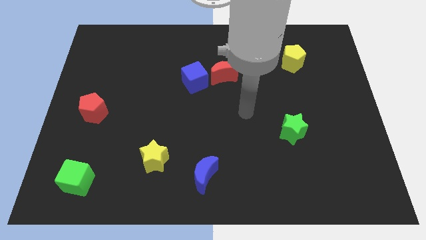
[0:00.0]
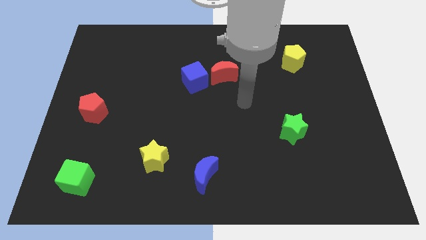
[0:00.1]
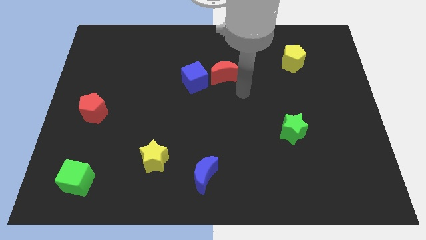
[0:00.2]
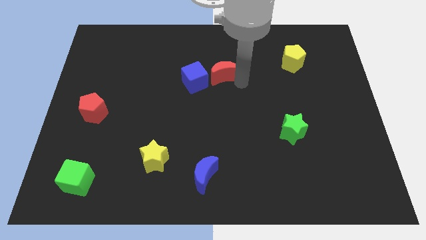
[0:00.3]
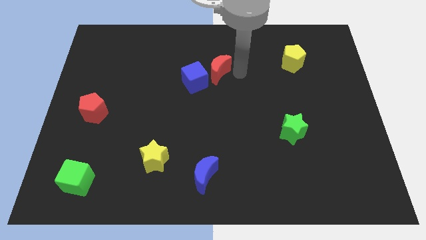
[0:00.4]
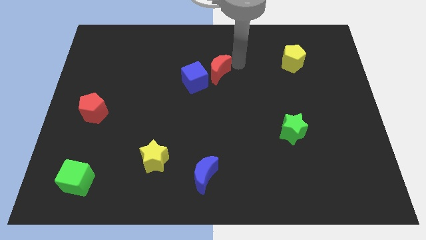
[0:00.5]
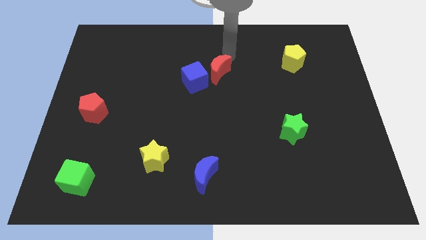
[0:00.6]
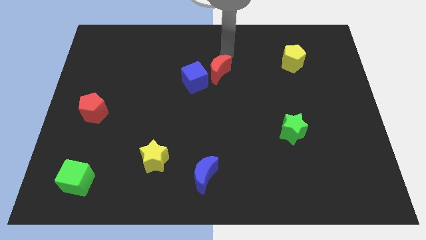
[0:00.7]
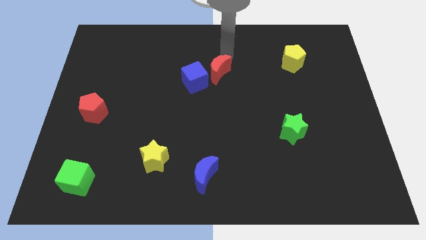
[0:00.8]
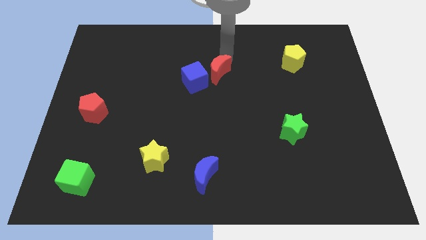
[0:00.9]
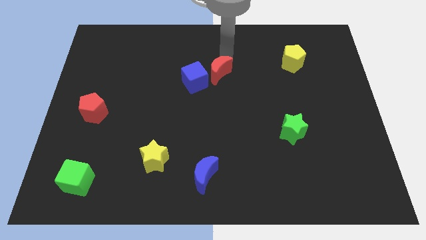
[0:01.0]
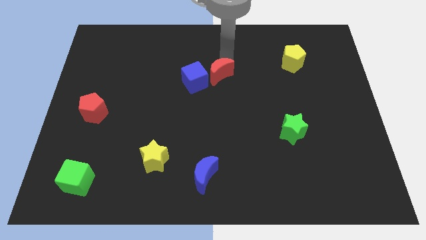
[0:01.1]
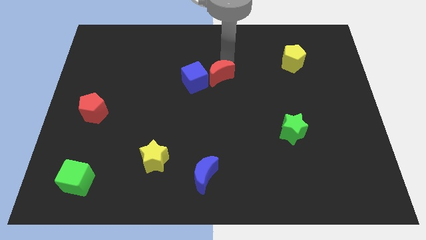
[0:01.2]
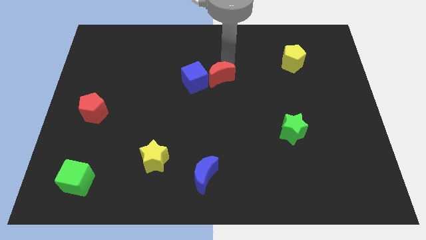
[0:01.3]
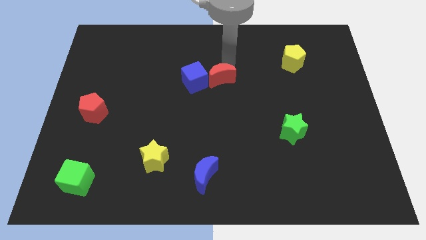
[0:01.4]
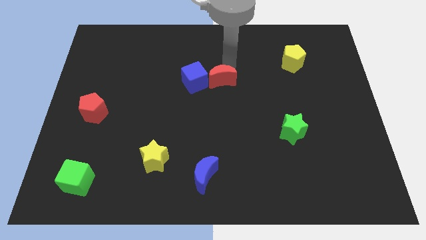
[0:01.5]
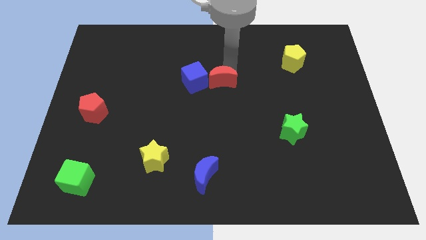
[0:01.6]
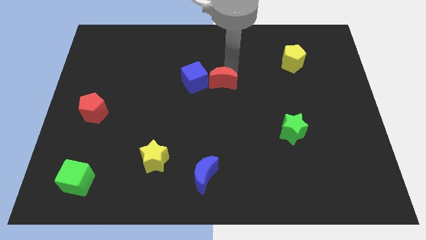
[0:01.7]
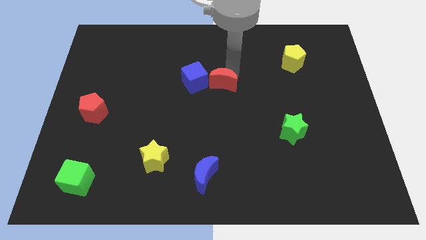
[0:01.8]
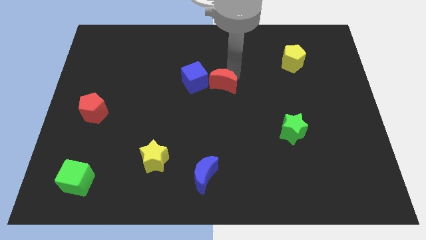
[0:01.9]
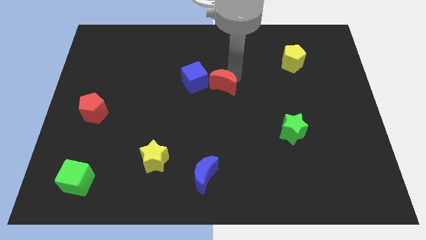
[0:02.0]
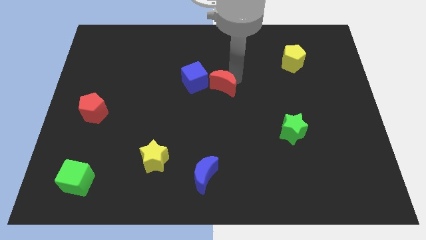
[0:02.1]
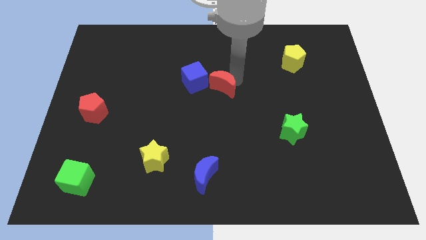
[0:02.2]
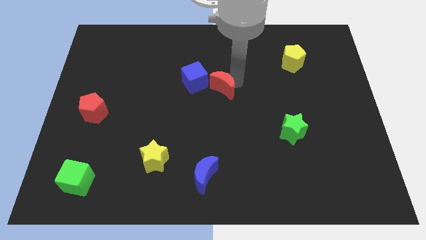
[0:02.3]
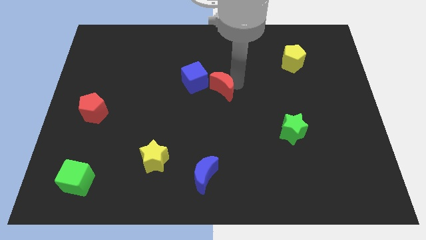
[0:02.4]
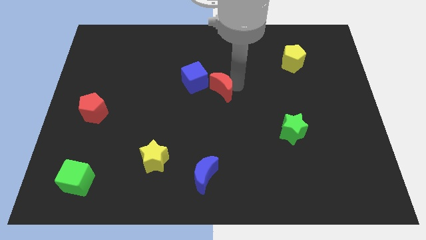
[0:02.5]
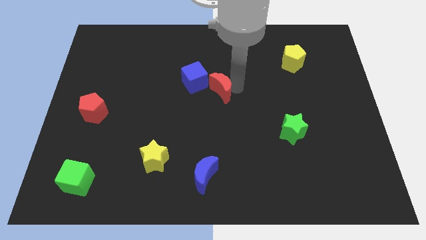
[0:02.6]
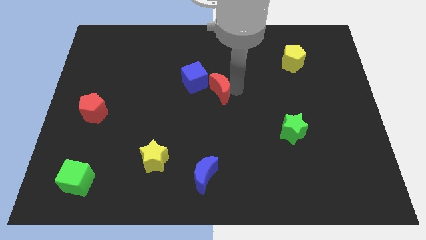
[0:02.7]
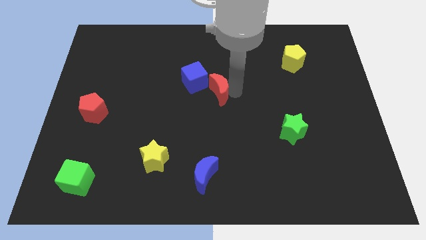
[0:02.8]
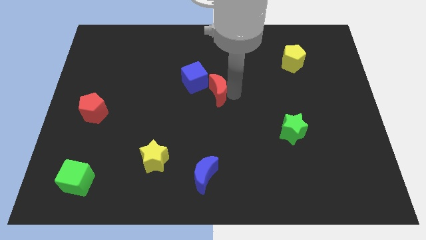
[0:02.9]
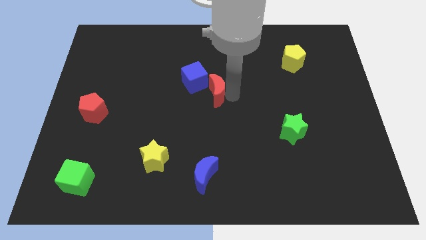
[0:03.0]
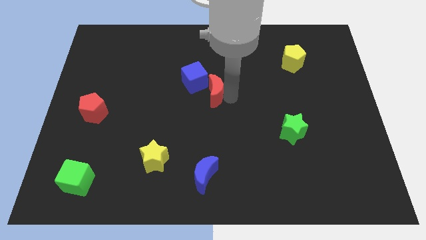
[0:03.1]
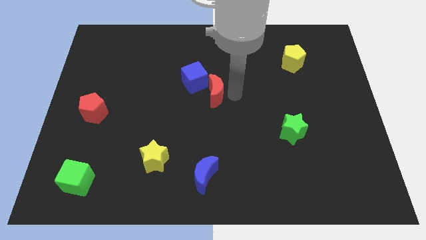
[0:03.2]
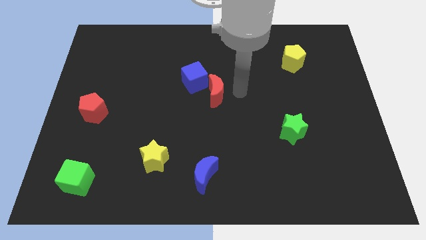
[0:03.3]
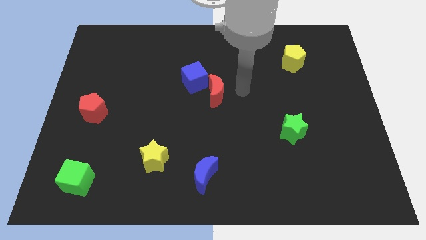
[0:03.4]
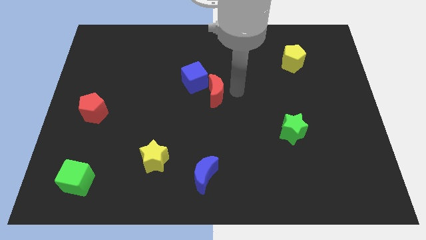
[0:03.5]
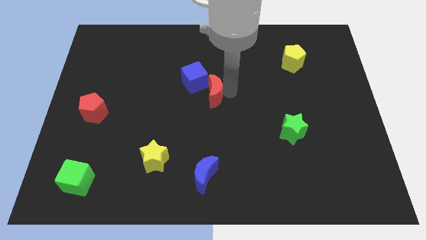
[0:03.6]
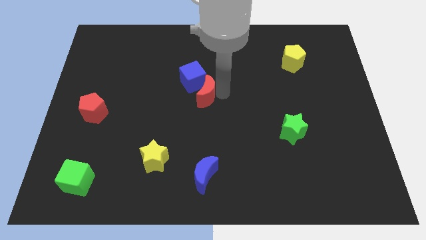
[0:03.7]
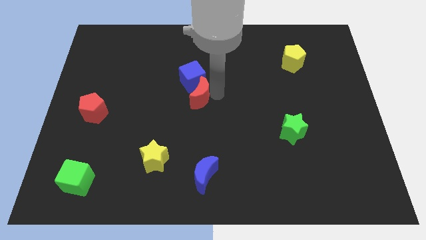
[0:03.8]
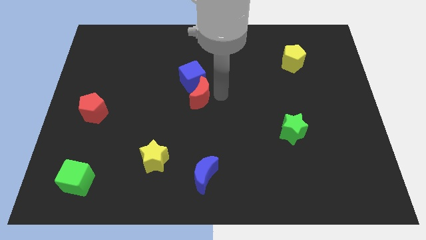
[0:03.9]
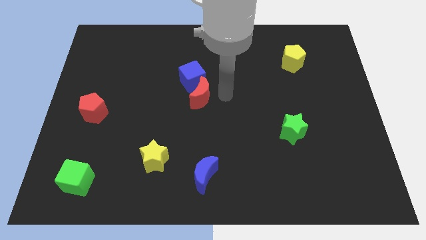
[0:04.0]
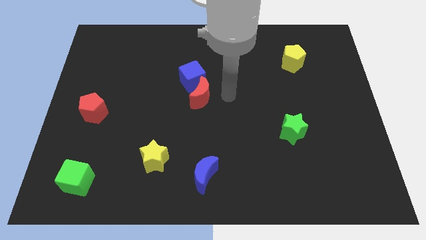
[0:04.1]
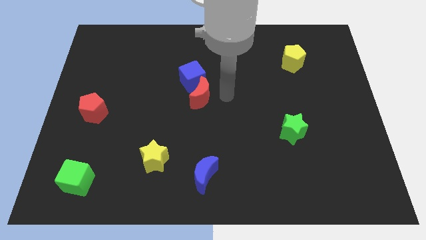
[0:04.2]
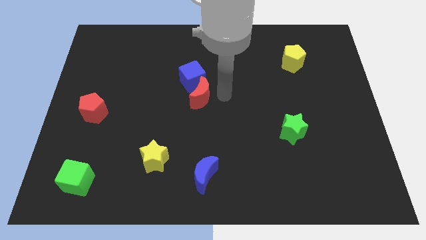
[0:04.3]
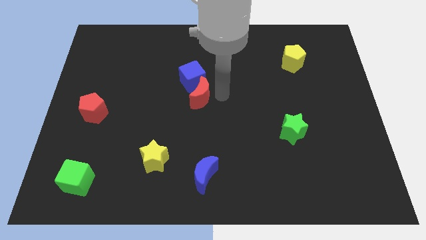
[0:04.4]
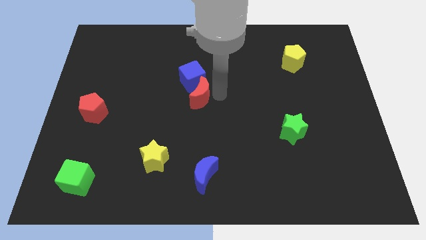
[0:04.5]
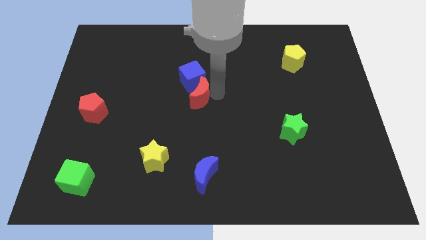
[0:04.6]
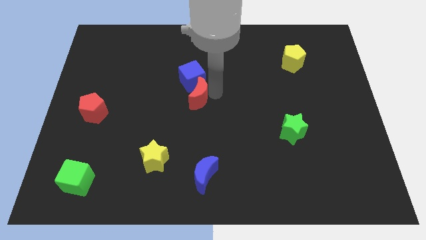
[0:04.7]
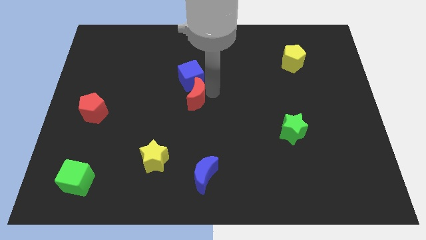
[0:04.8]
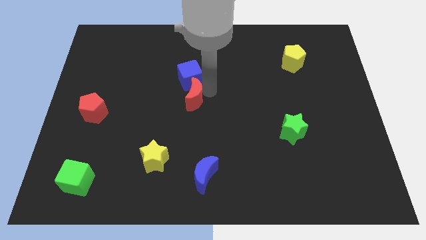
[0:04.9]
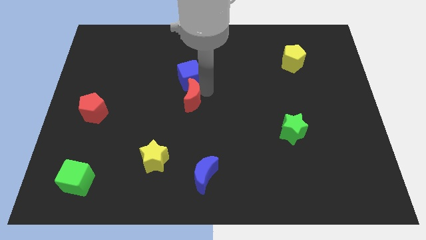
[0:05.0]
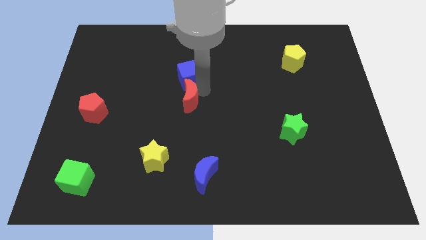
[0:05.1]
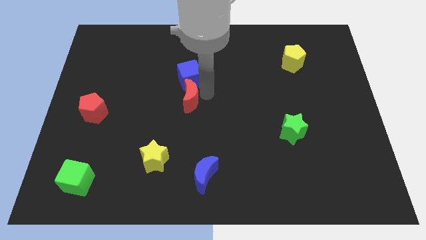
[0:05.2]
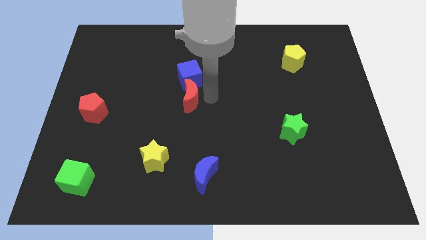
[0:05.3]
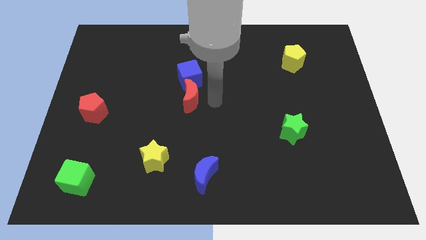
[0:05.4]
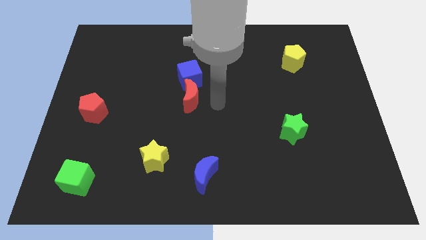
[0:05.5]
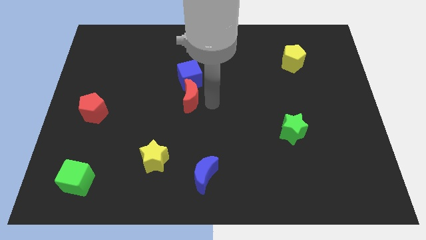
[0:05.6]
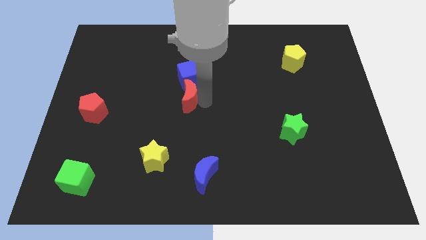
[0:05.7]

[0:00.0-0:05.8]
slide the red moon to the bottom left of the blue cube

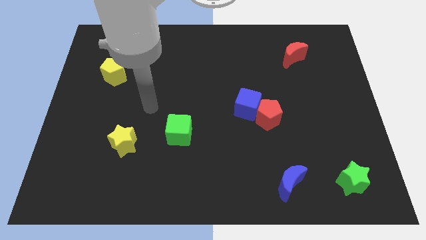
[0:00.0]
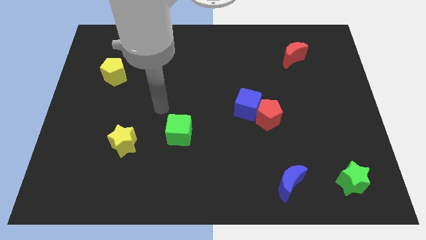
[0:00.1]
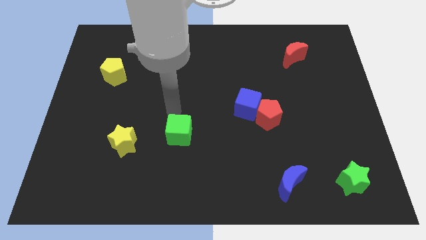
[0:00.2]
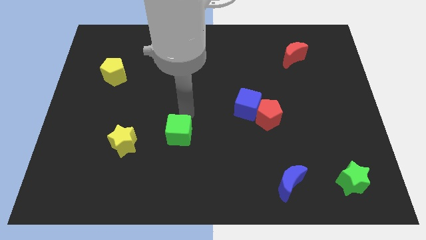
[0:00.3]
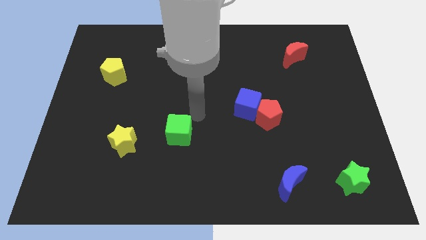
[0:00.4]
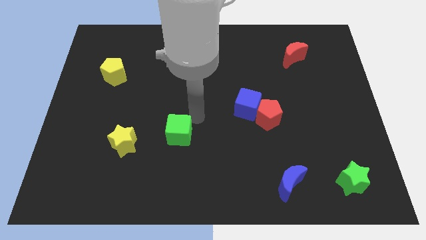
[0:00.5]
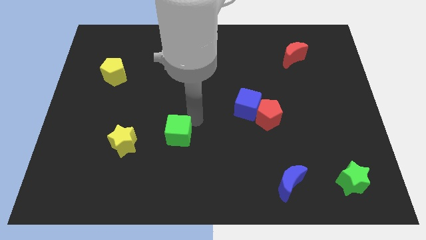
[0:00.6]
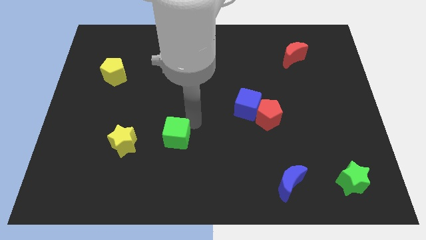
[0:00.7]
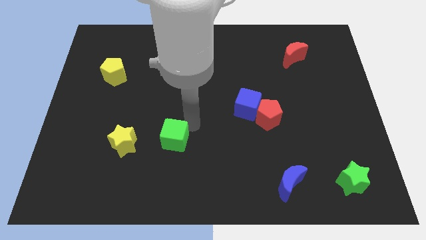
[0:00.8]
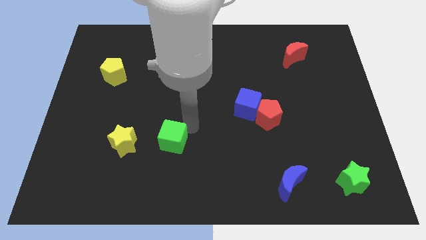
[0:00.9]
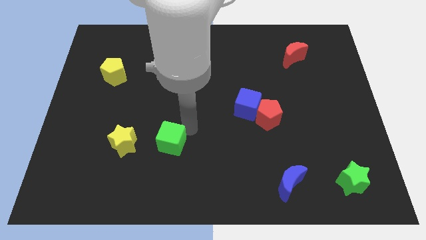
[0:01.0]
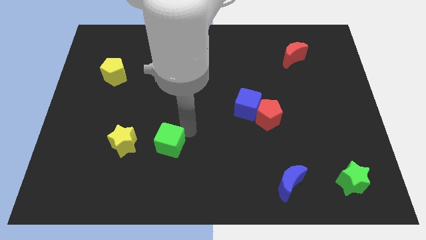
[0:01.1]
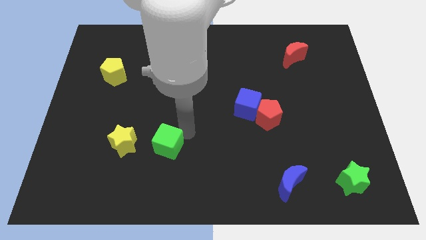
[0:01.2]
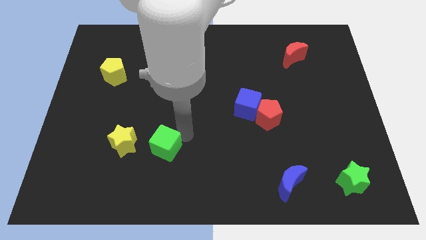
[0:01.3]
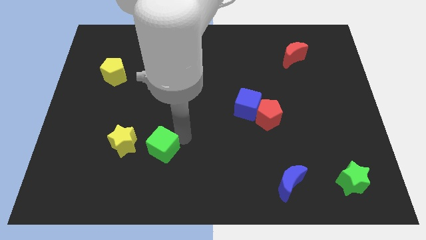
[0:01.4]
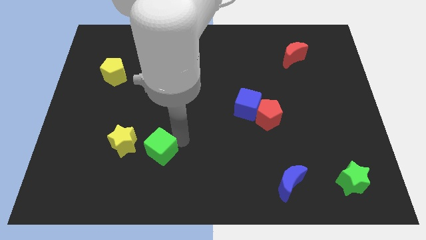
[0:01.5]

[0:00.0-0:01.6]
move the green cube diagonally down and to the right of the yellow star

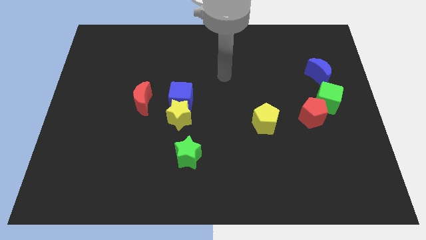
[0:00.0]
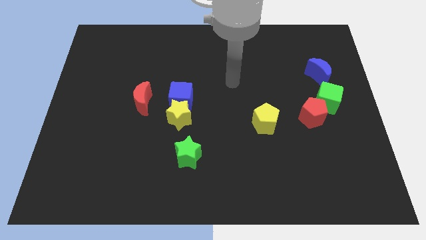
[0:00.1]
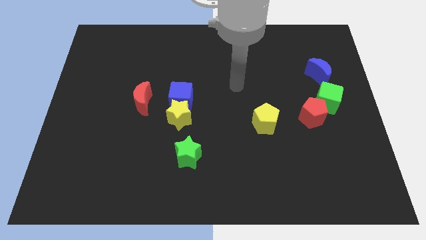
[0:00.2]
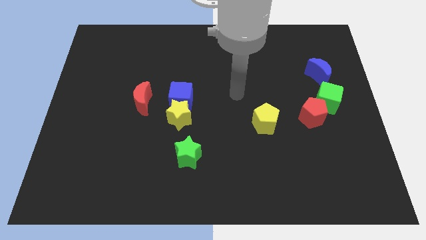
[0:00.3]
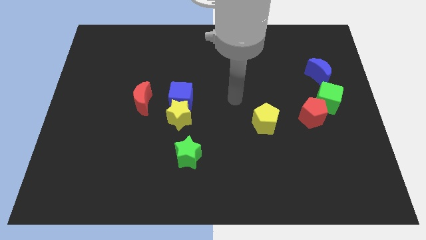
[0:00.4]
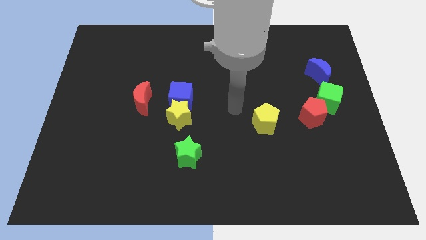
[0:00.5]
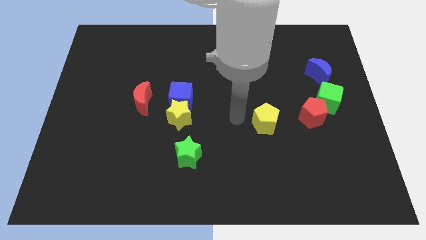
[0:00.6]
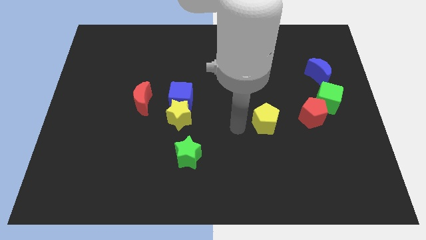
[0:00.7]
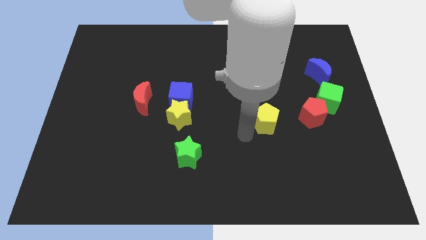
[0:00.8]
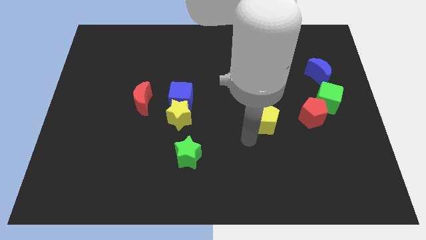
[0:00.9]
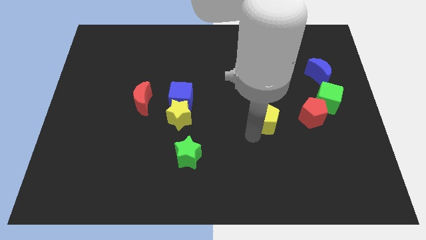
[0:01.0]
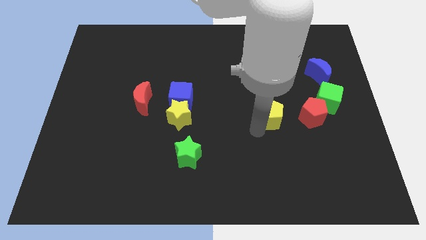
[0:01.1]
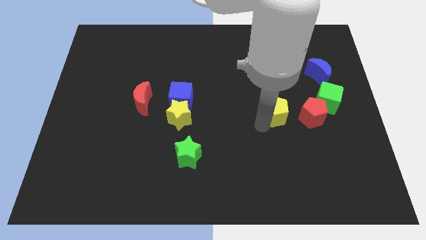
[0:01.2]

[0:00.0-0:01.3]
slide the yellow pentagon just left of the green cube
